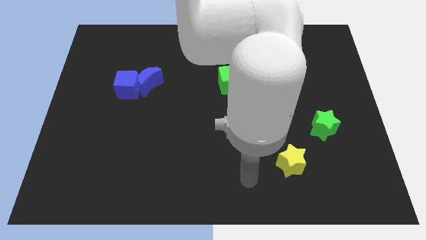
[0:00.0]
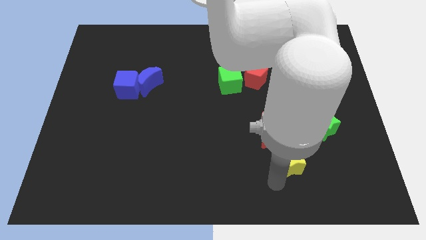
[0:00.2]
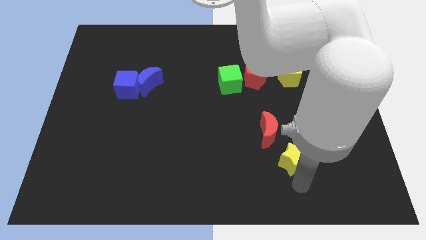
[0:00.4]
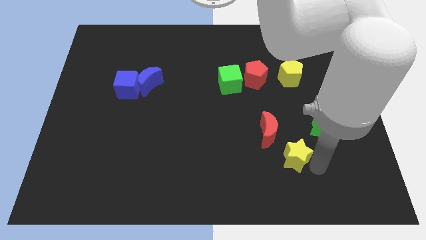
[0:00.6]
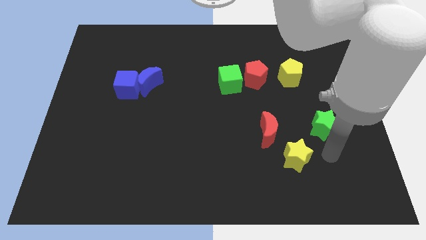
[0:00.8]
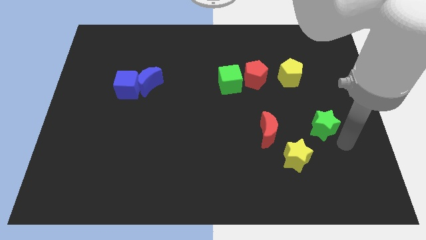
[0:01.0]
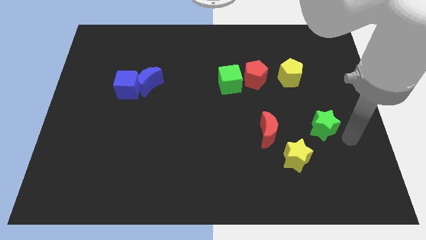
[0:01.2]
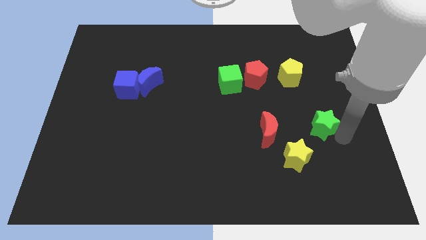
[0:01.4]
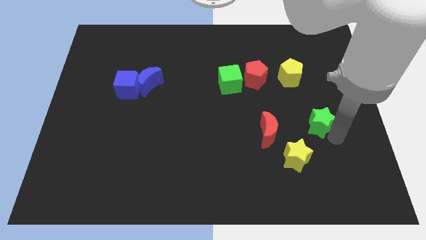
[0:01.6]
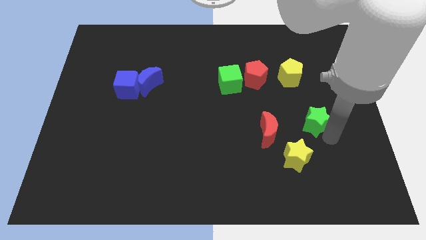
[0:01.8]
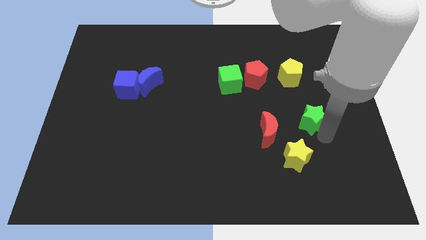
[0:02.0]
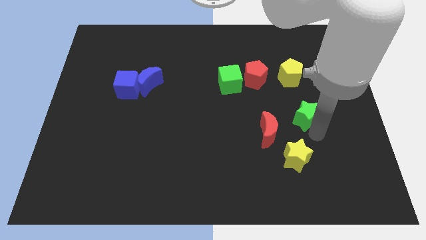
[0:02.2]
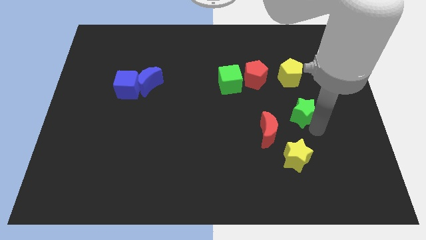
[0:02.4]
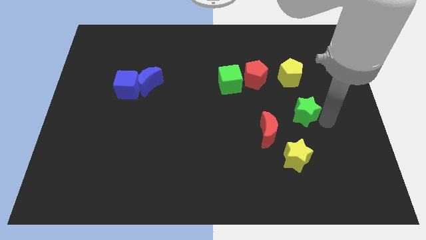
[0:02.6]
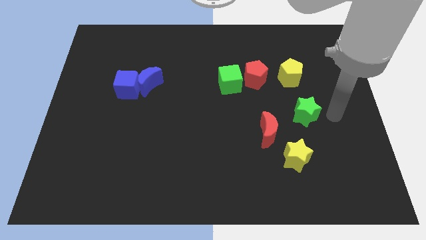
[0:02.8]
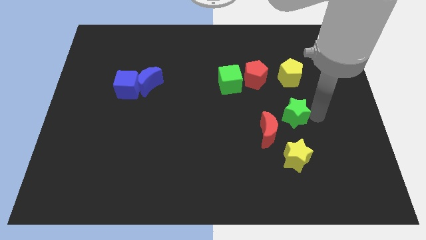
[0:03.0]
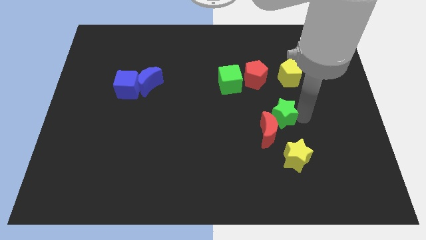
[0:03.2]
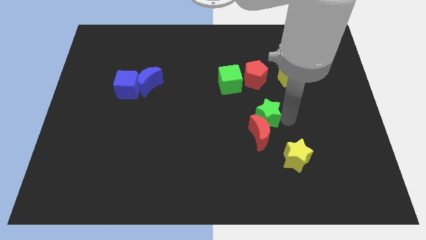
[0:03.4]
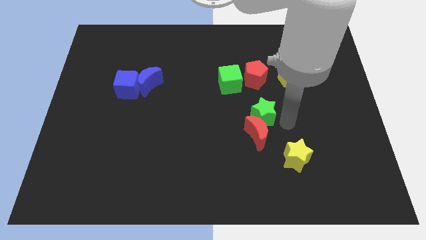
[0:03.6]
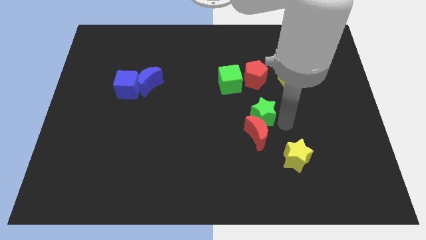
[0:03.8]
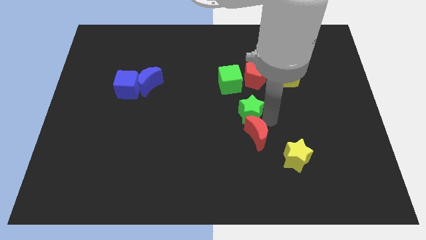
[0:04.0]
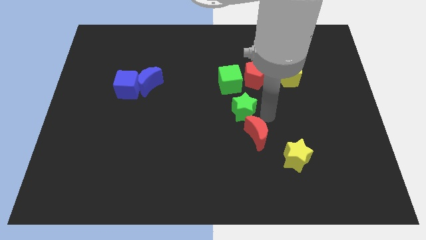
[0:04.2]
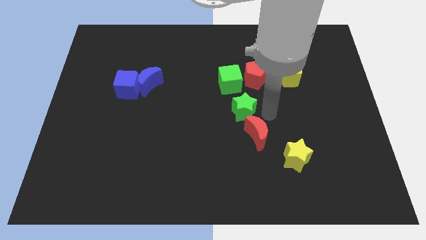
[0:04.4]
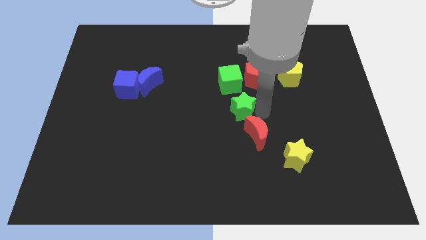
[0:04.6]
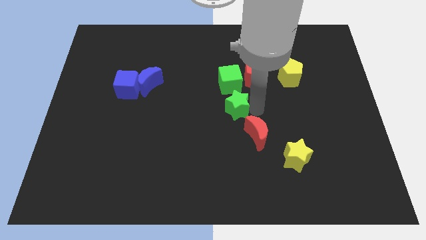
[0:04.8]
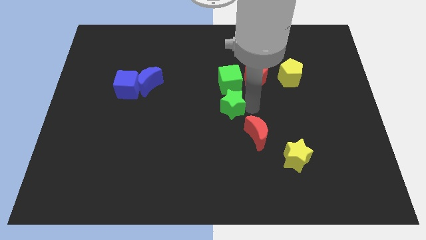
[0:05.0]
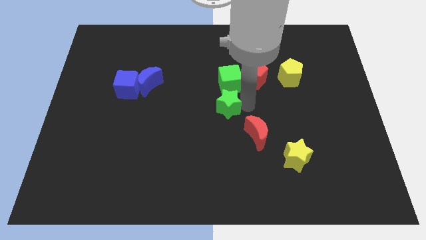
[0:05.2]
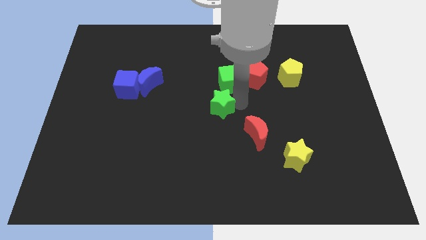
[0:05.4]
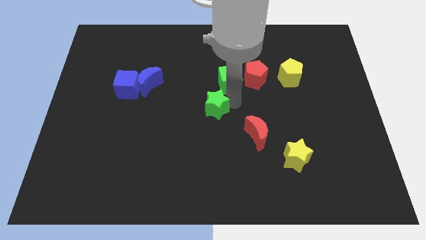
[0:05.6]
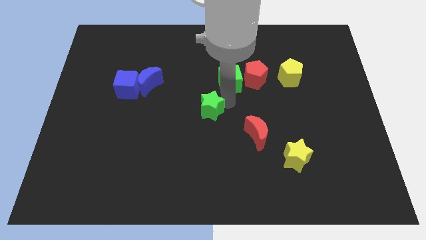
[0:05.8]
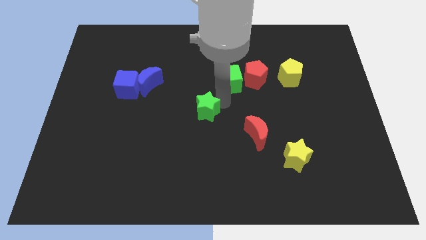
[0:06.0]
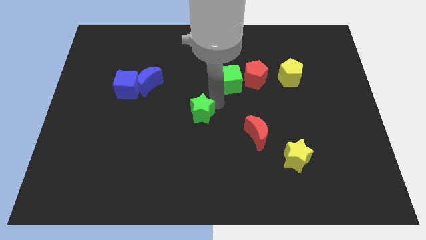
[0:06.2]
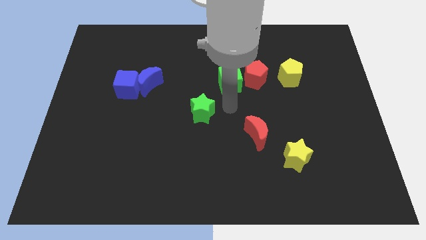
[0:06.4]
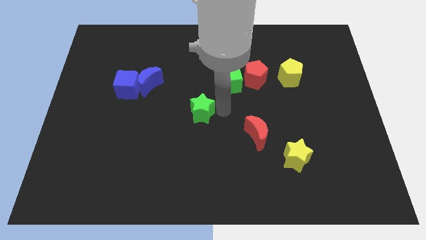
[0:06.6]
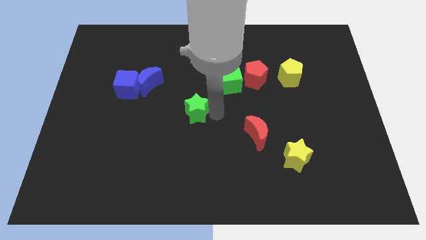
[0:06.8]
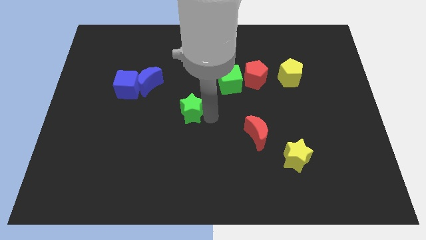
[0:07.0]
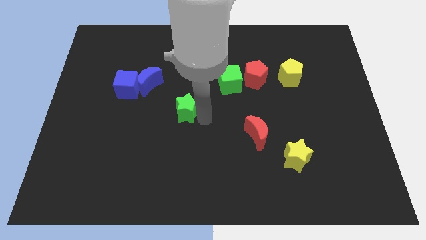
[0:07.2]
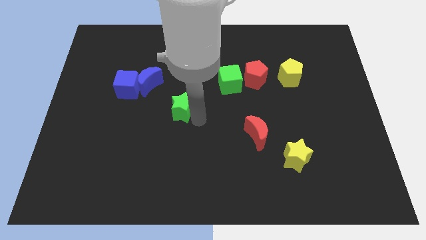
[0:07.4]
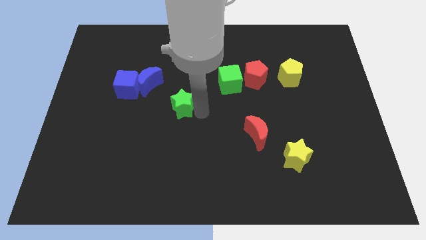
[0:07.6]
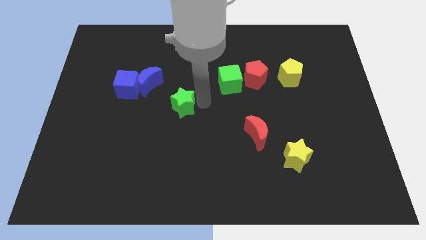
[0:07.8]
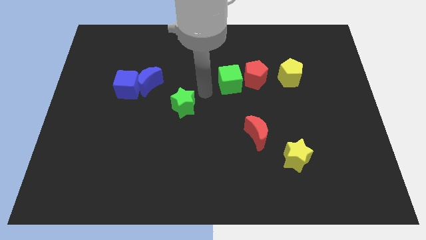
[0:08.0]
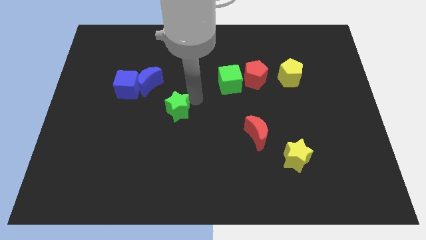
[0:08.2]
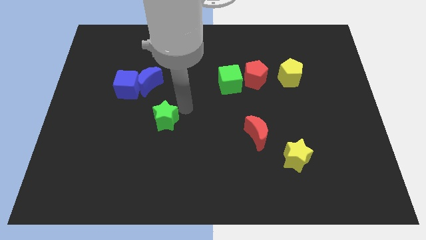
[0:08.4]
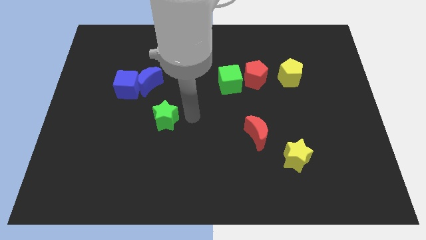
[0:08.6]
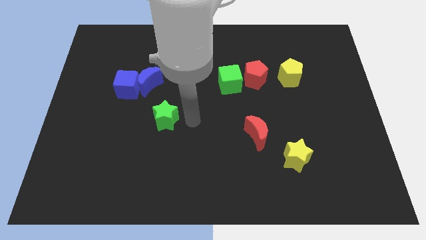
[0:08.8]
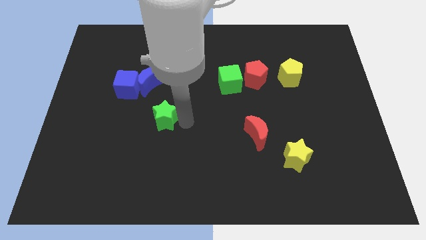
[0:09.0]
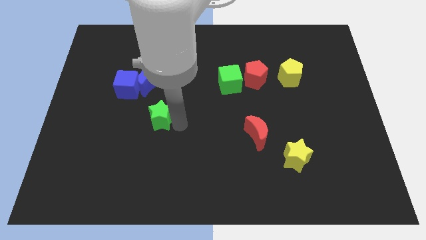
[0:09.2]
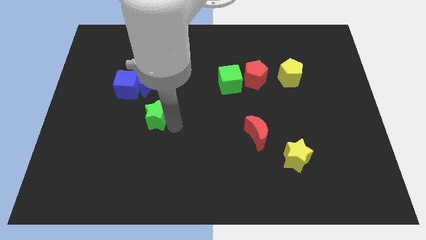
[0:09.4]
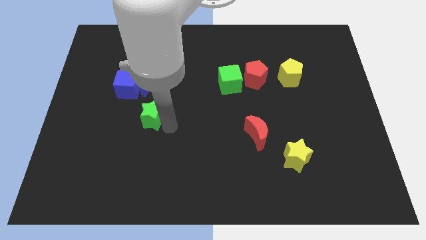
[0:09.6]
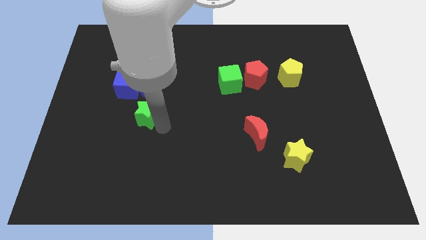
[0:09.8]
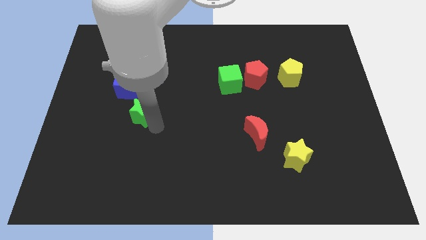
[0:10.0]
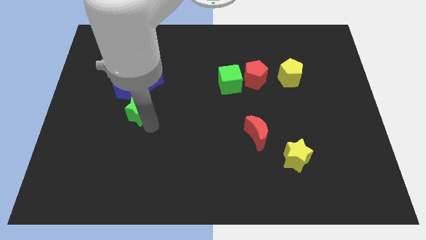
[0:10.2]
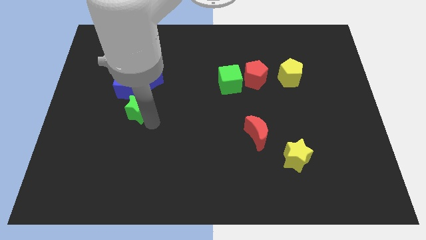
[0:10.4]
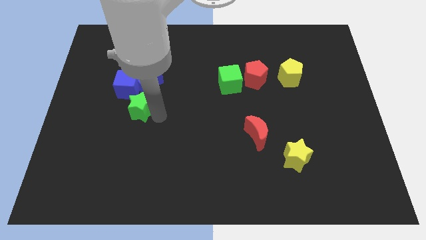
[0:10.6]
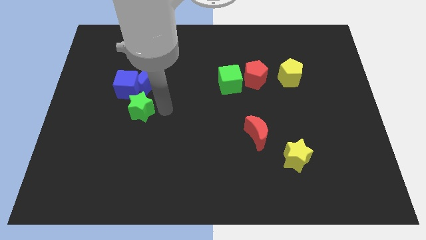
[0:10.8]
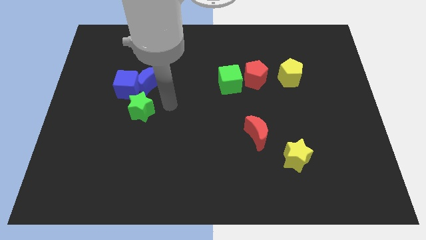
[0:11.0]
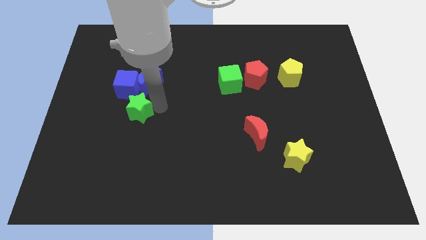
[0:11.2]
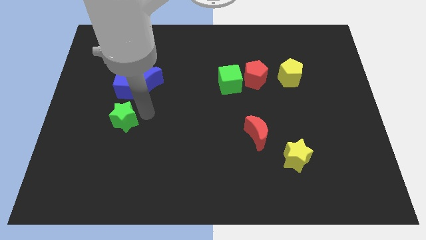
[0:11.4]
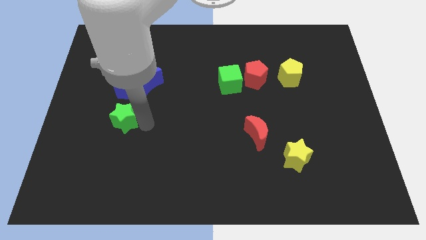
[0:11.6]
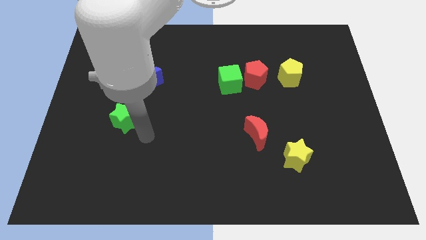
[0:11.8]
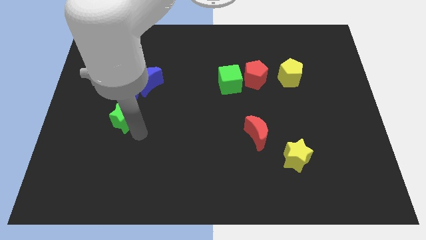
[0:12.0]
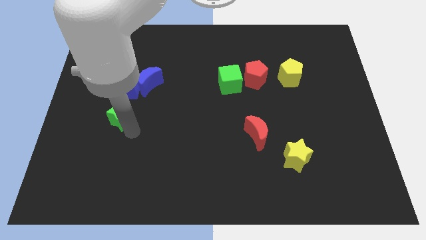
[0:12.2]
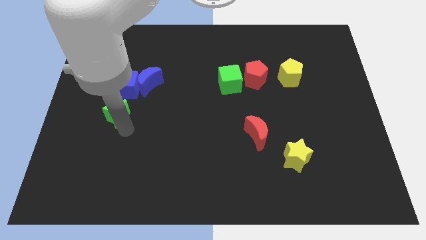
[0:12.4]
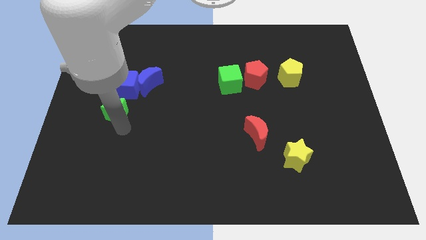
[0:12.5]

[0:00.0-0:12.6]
push the green star diagonally down and to the left of the blue cube

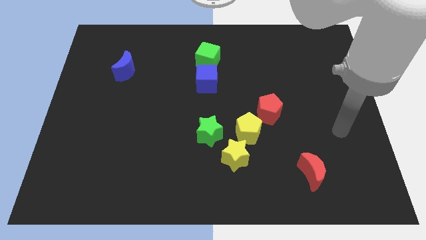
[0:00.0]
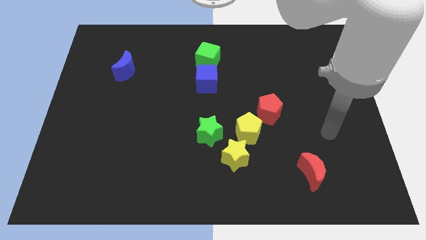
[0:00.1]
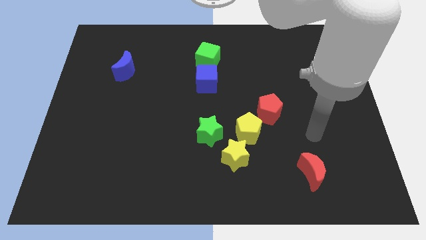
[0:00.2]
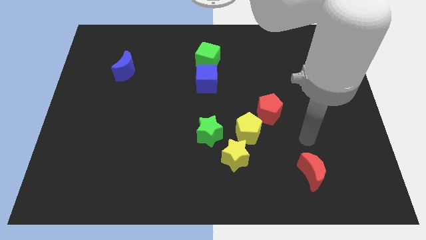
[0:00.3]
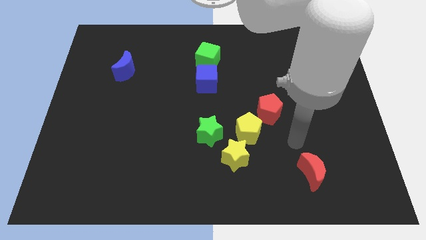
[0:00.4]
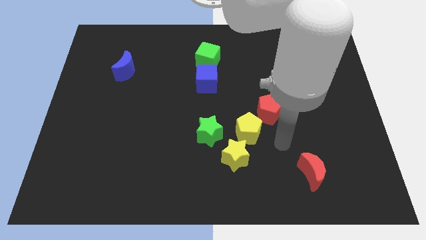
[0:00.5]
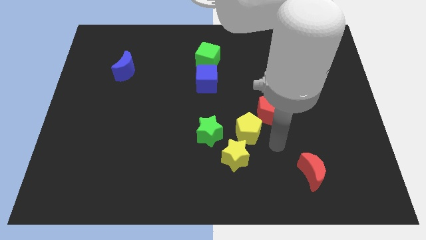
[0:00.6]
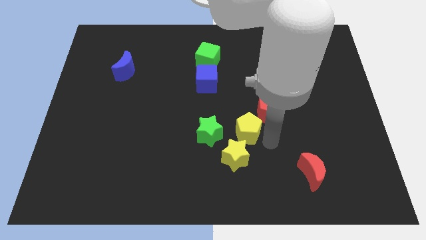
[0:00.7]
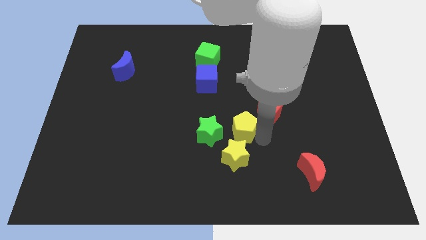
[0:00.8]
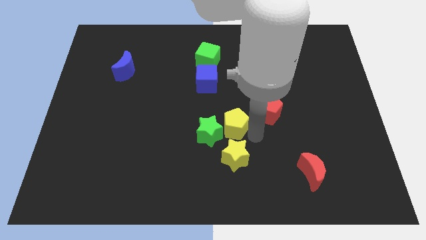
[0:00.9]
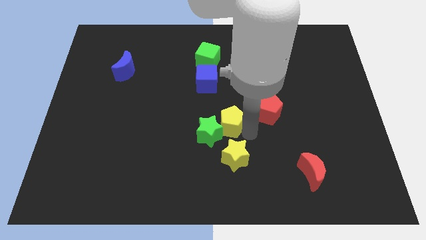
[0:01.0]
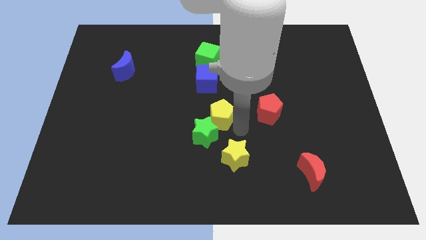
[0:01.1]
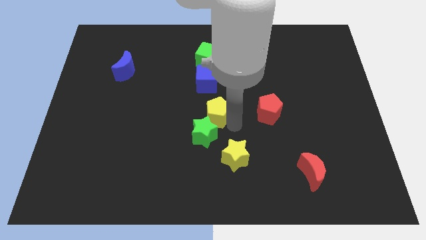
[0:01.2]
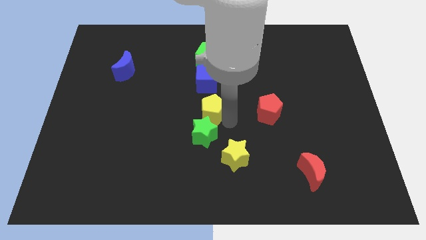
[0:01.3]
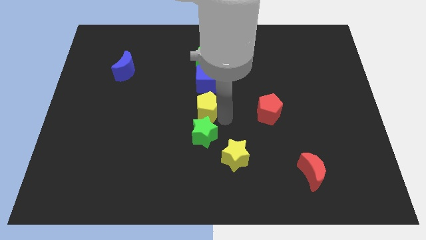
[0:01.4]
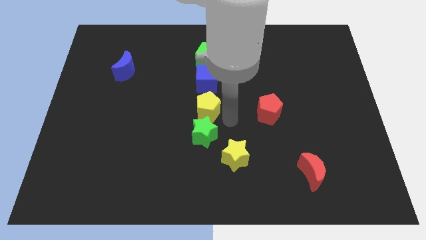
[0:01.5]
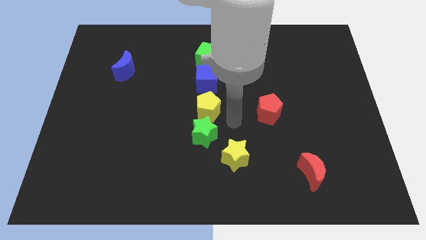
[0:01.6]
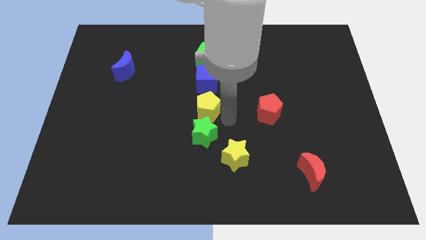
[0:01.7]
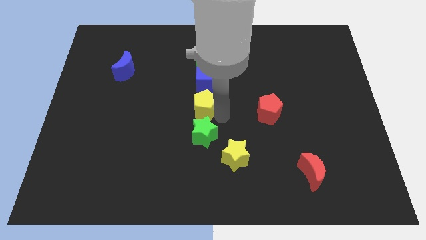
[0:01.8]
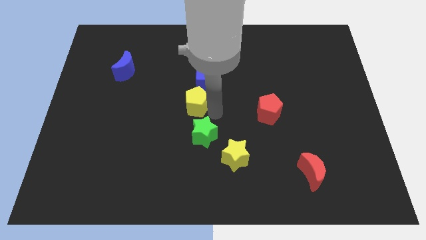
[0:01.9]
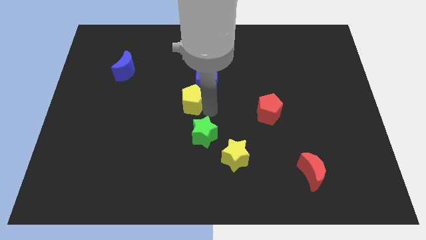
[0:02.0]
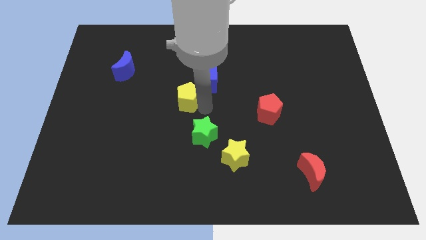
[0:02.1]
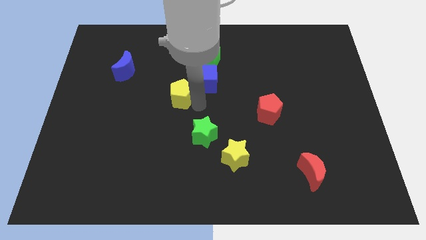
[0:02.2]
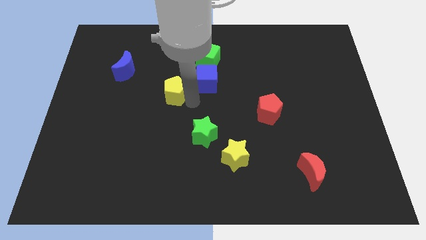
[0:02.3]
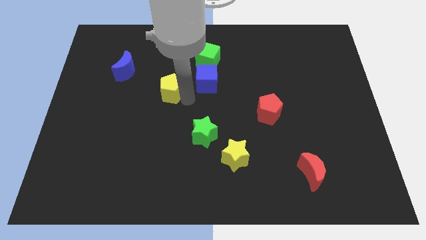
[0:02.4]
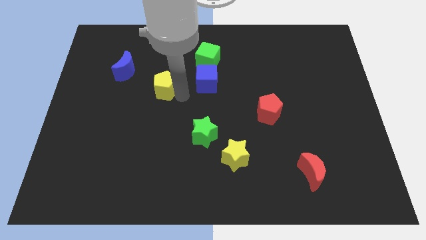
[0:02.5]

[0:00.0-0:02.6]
put the yellow pentagon to the bottom right side of the blue moon
